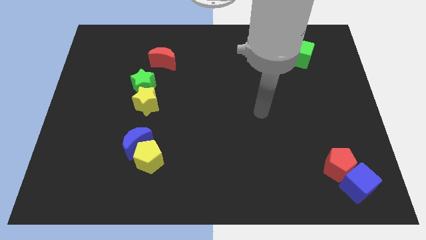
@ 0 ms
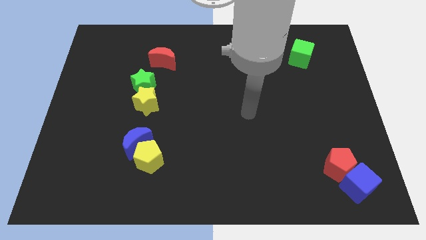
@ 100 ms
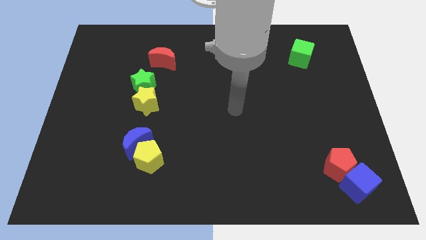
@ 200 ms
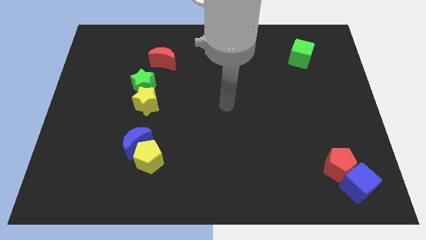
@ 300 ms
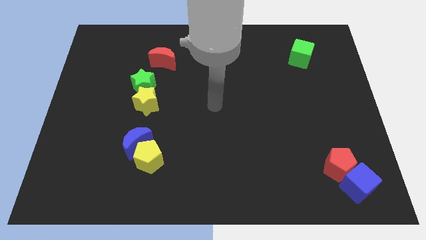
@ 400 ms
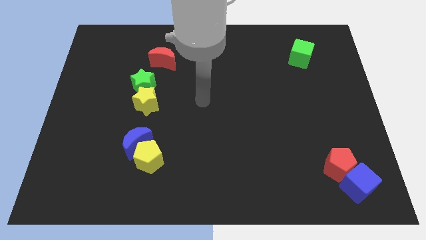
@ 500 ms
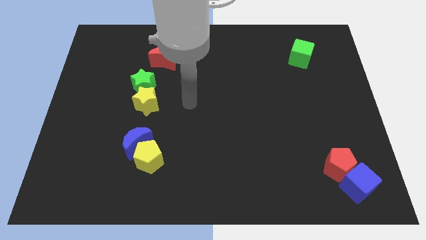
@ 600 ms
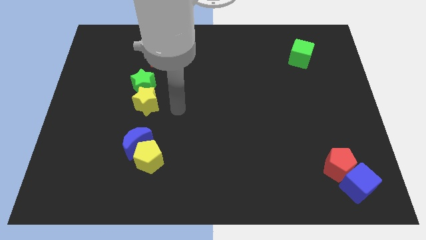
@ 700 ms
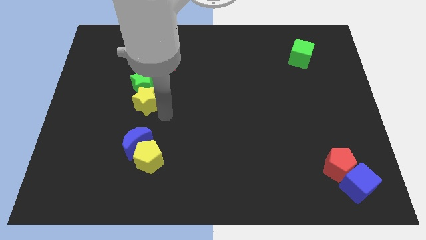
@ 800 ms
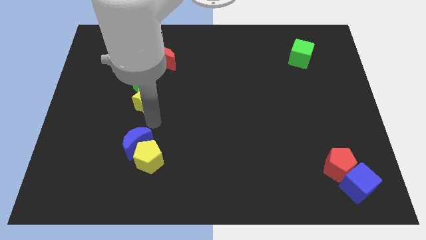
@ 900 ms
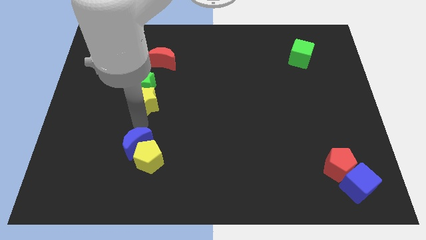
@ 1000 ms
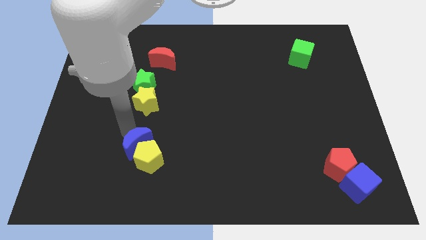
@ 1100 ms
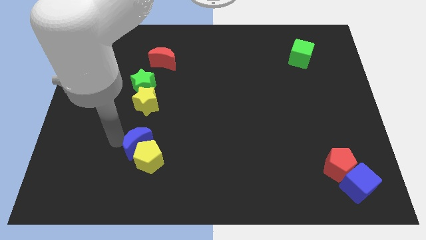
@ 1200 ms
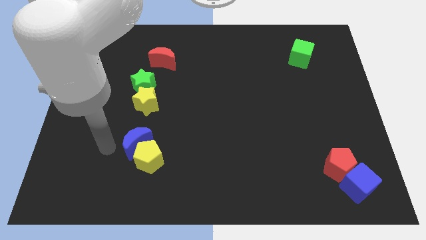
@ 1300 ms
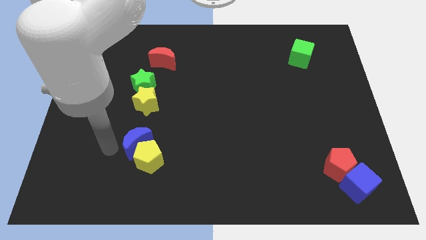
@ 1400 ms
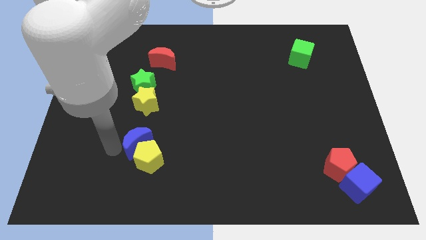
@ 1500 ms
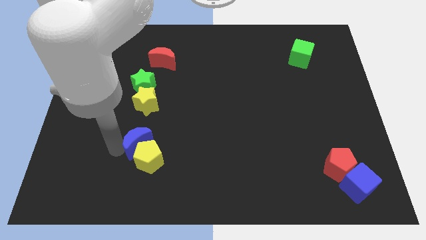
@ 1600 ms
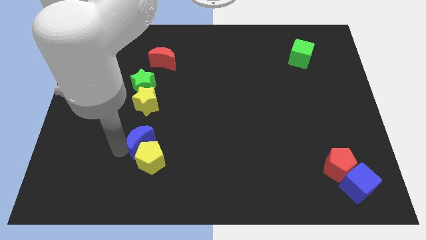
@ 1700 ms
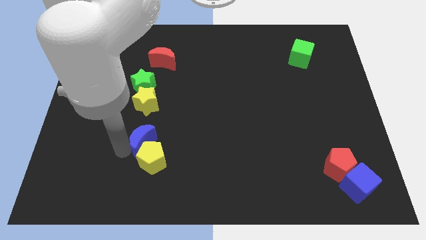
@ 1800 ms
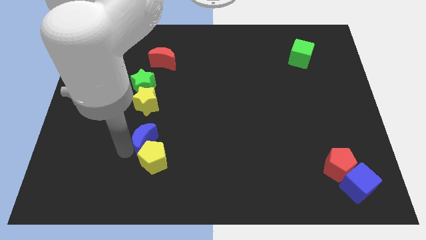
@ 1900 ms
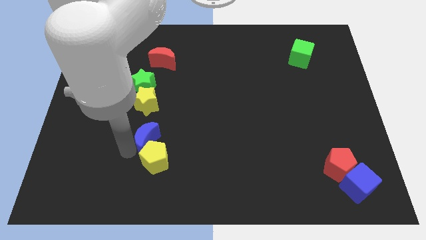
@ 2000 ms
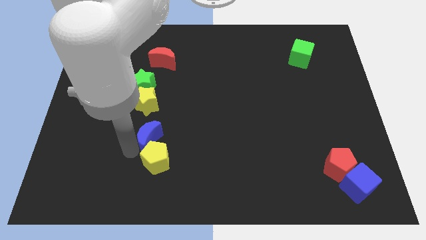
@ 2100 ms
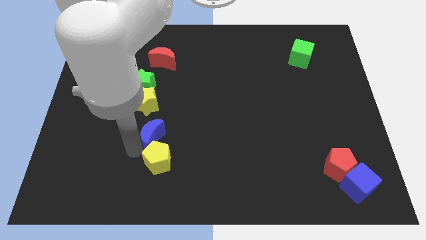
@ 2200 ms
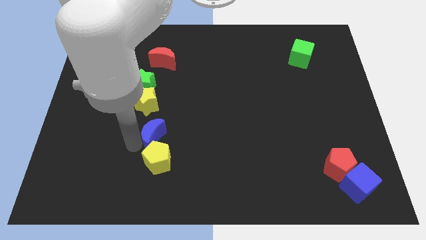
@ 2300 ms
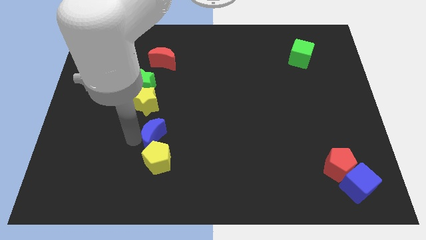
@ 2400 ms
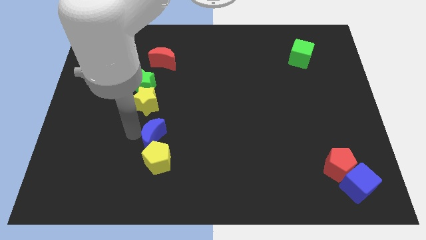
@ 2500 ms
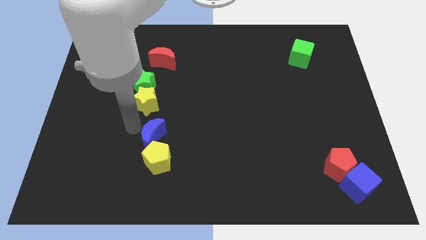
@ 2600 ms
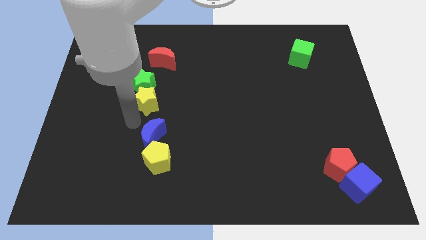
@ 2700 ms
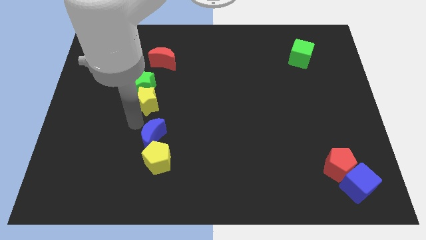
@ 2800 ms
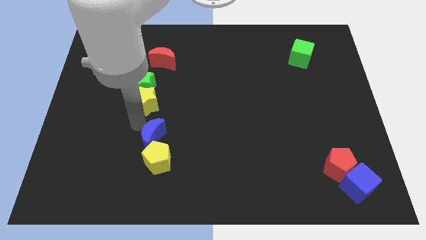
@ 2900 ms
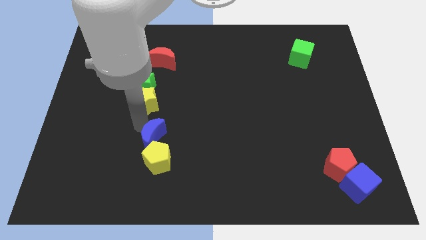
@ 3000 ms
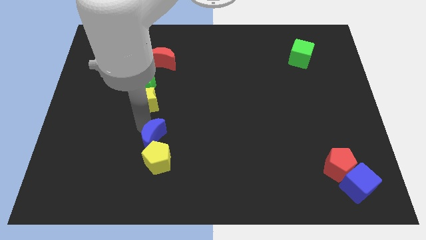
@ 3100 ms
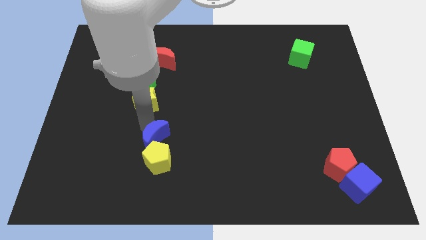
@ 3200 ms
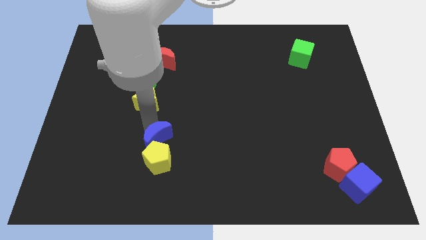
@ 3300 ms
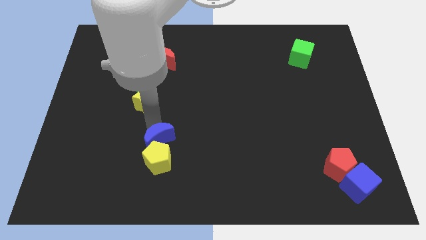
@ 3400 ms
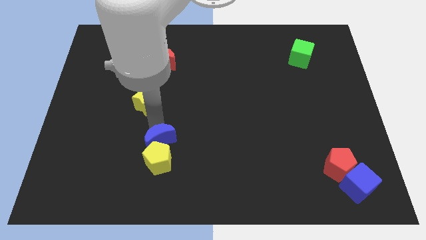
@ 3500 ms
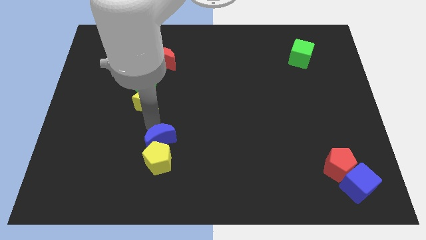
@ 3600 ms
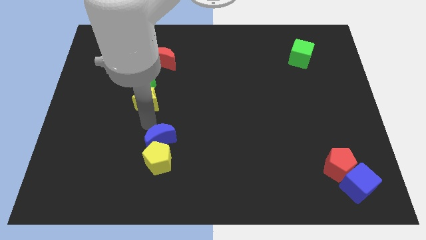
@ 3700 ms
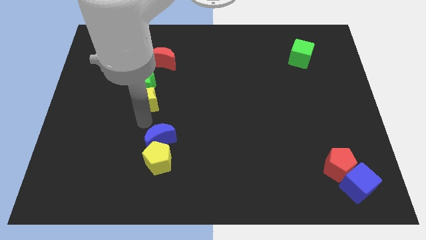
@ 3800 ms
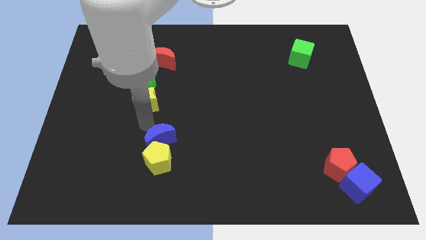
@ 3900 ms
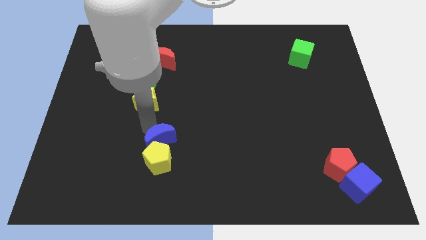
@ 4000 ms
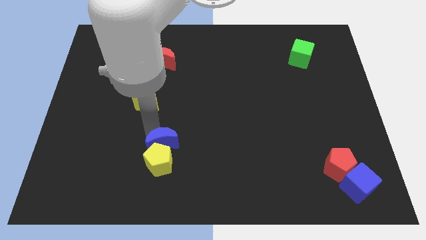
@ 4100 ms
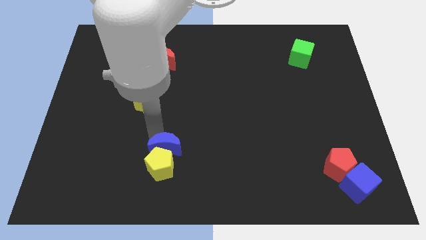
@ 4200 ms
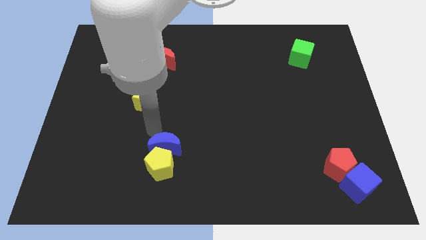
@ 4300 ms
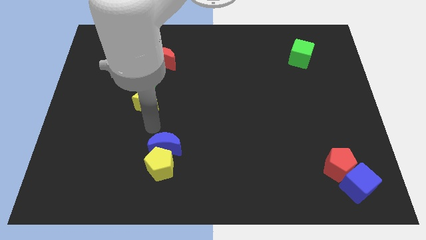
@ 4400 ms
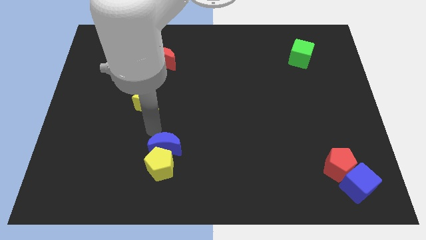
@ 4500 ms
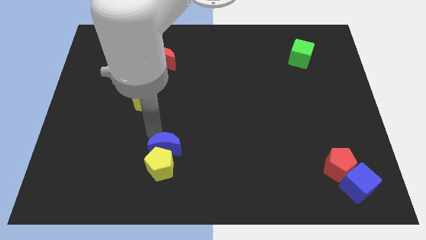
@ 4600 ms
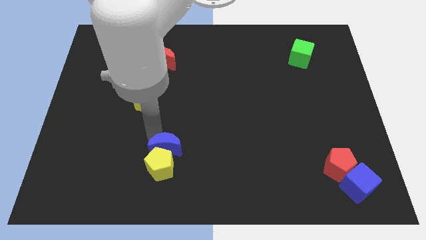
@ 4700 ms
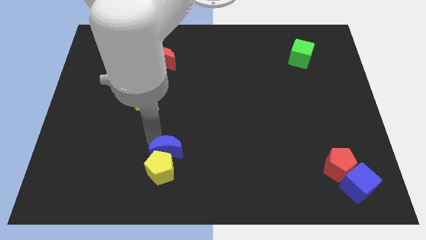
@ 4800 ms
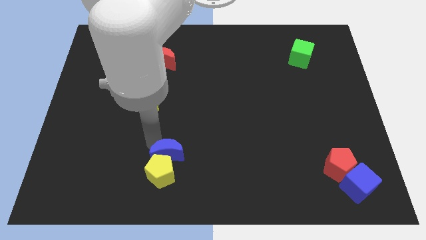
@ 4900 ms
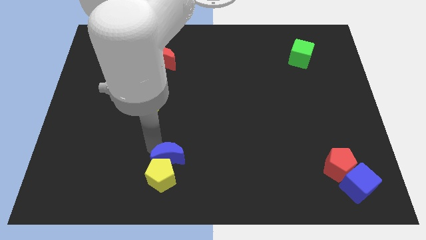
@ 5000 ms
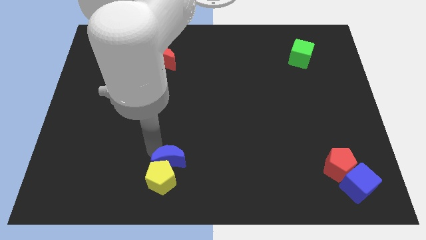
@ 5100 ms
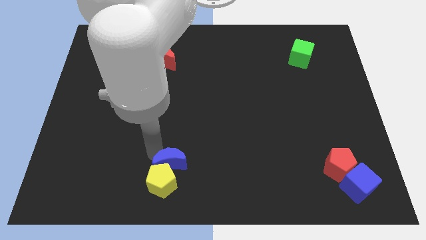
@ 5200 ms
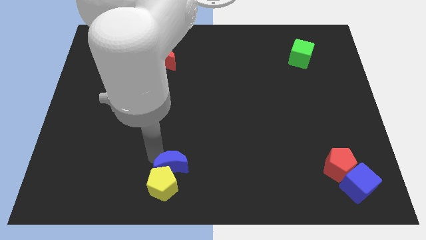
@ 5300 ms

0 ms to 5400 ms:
slide the blue moon to the bottom

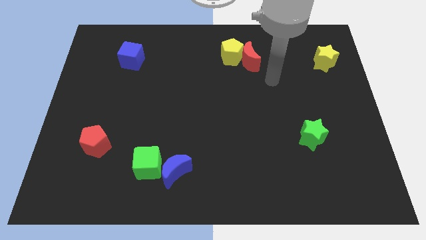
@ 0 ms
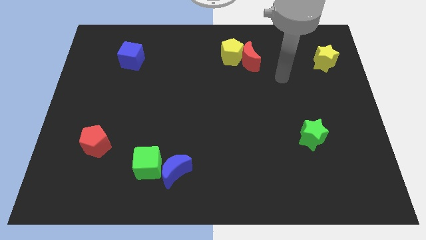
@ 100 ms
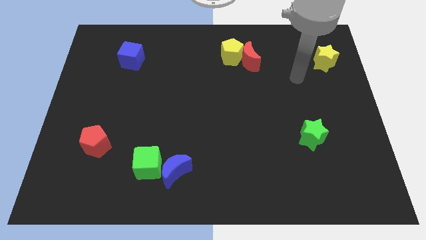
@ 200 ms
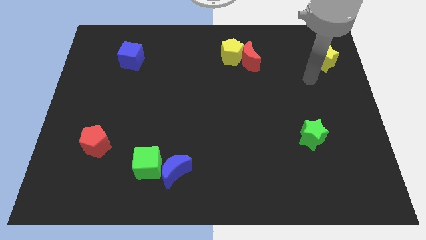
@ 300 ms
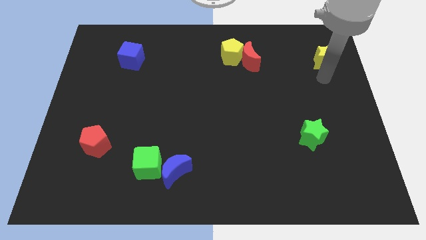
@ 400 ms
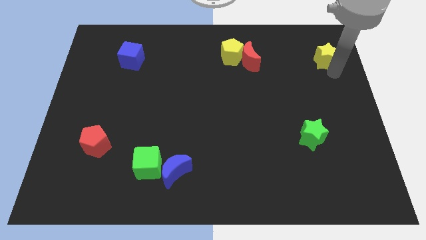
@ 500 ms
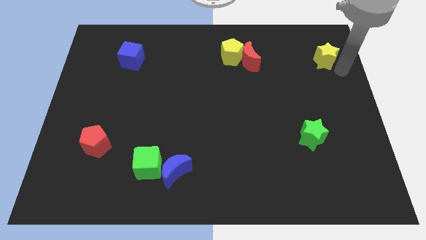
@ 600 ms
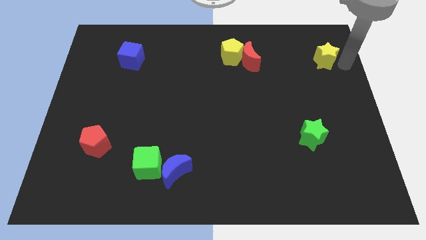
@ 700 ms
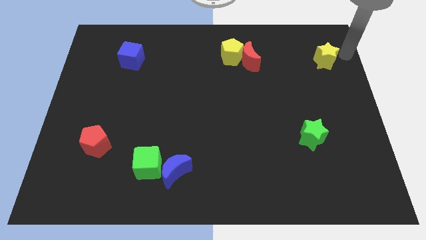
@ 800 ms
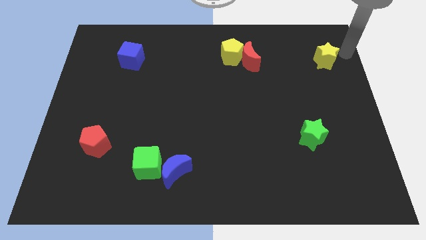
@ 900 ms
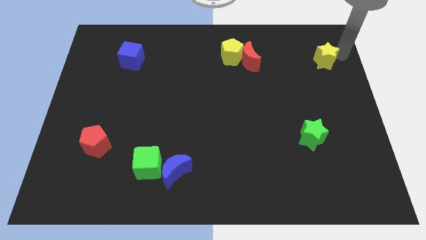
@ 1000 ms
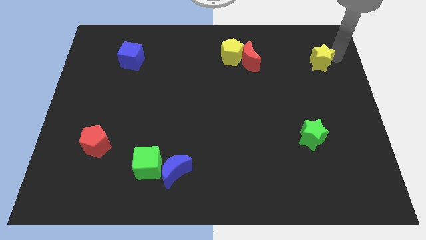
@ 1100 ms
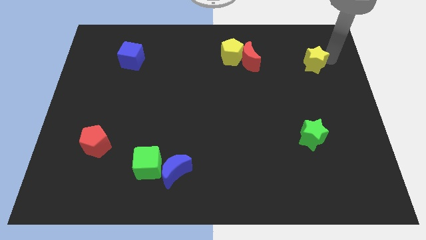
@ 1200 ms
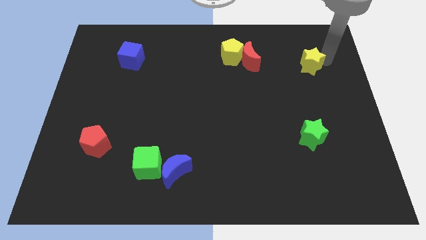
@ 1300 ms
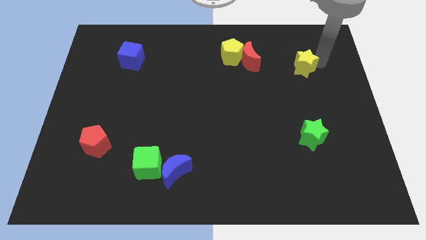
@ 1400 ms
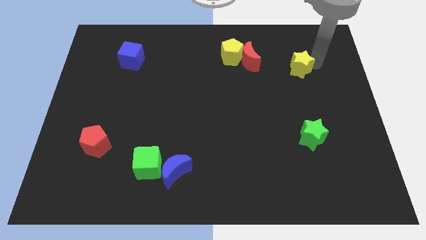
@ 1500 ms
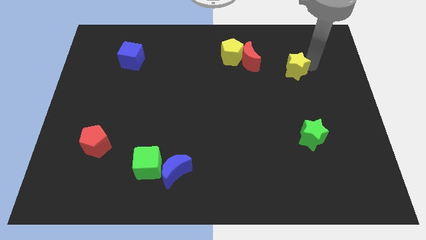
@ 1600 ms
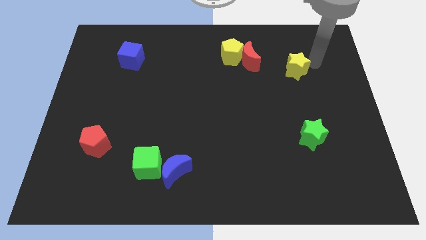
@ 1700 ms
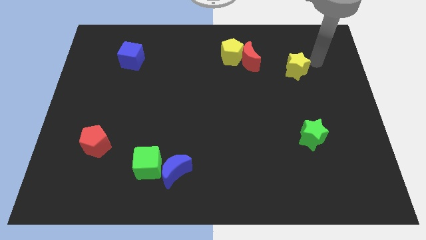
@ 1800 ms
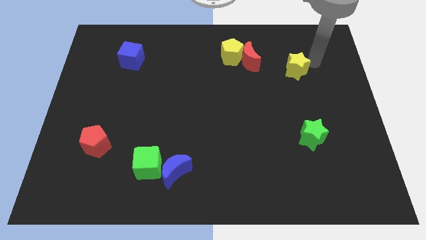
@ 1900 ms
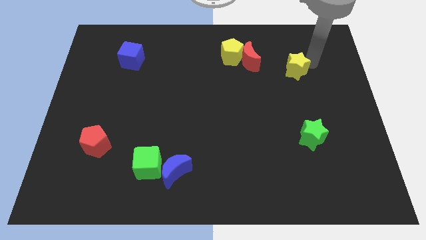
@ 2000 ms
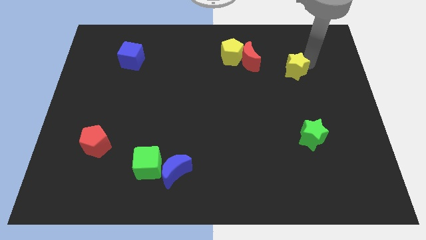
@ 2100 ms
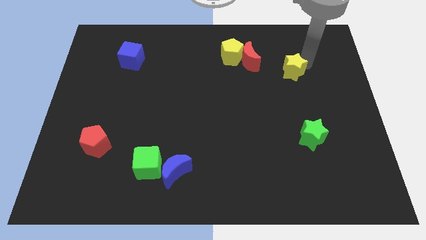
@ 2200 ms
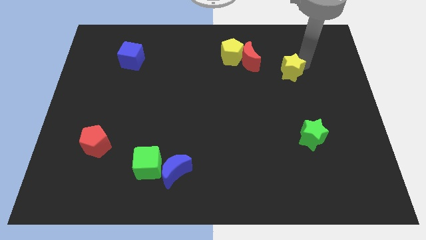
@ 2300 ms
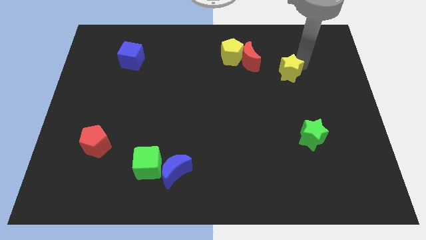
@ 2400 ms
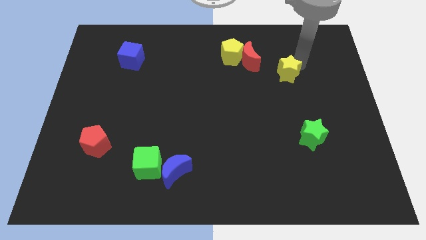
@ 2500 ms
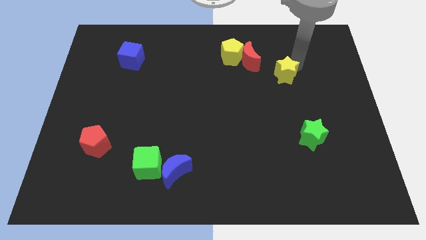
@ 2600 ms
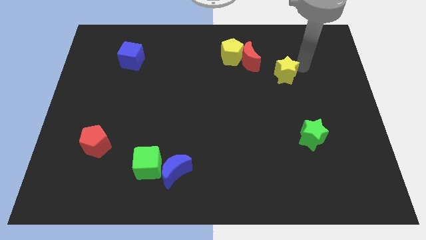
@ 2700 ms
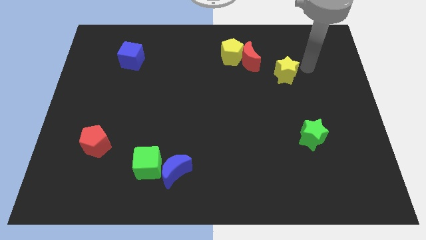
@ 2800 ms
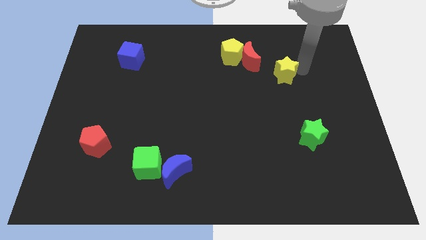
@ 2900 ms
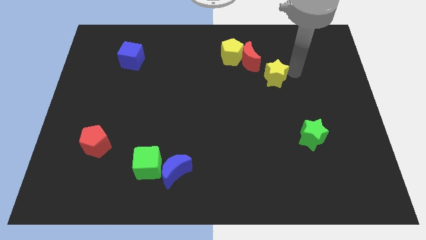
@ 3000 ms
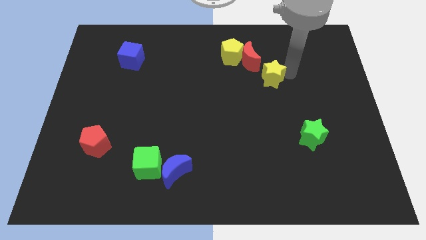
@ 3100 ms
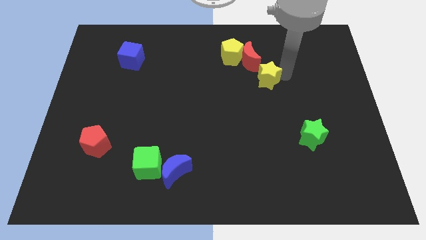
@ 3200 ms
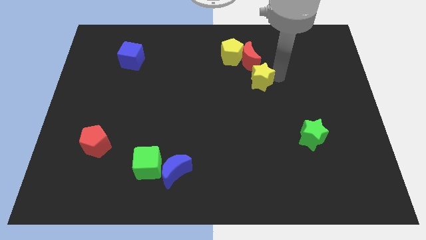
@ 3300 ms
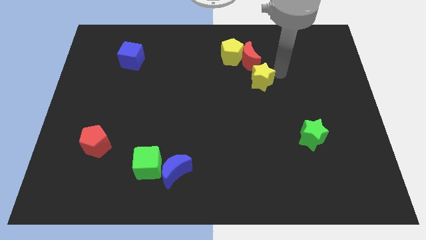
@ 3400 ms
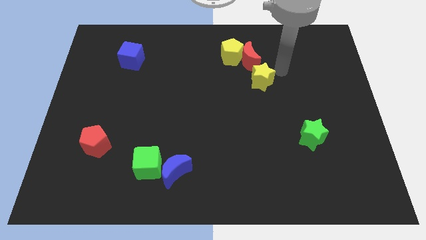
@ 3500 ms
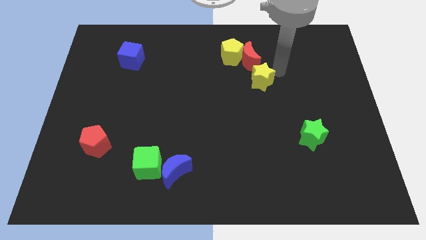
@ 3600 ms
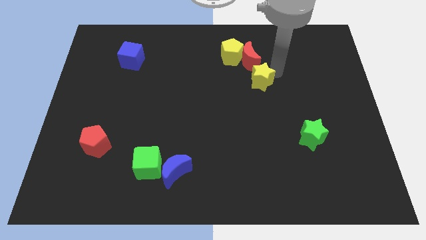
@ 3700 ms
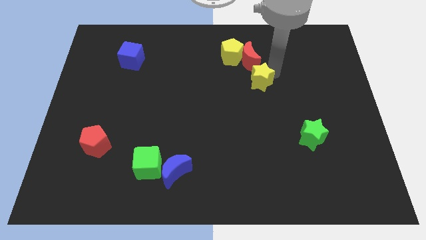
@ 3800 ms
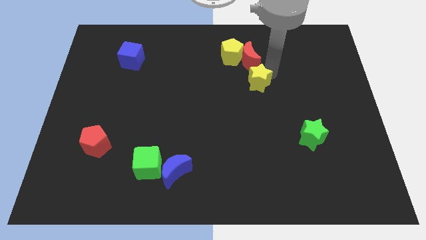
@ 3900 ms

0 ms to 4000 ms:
push the yellow star to the middle
